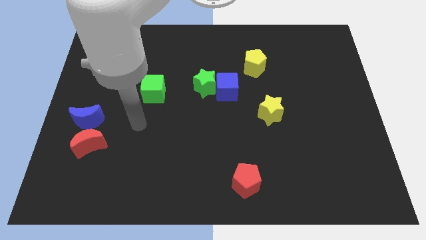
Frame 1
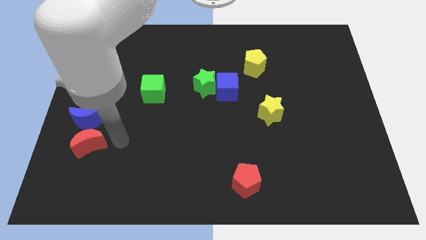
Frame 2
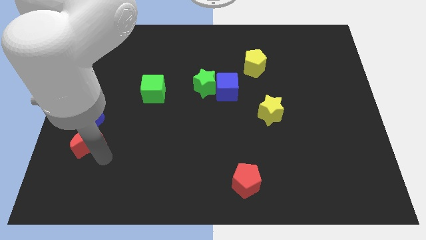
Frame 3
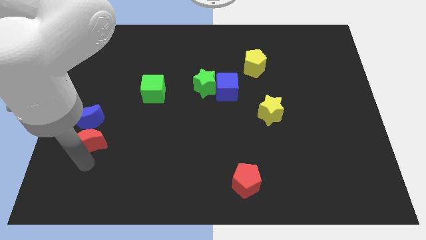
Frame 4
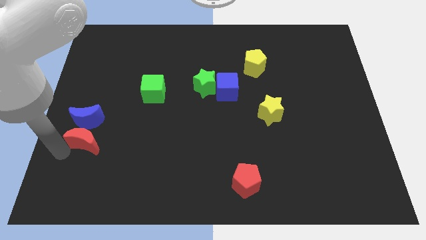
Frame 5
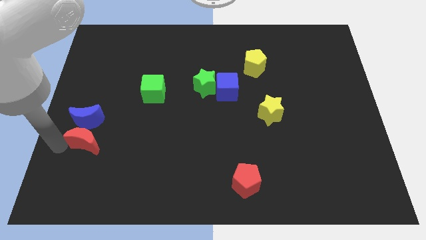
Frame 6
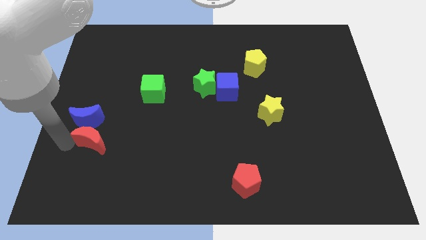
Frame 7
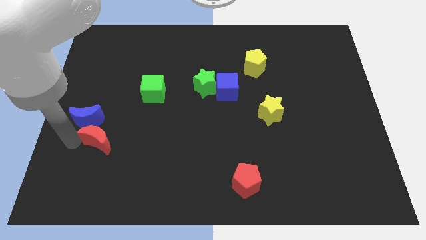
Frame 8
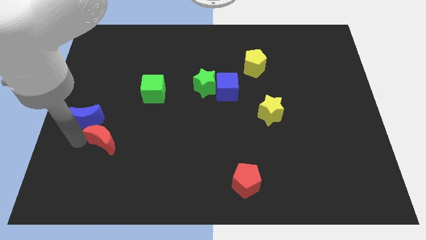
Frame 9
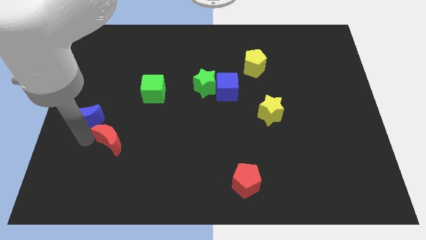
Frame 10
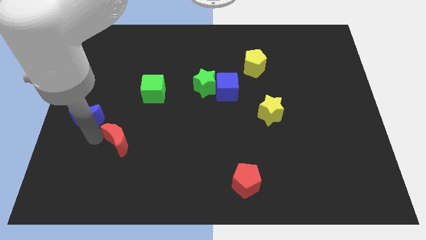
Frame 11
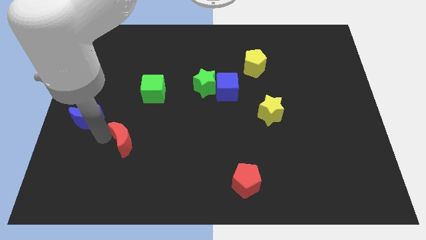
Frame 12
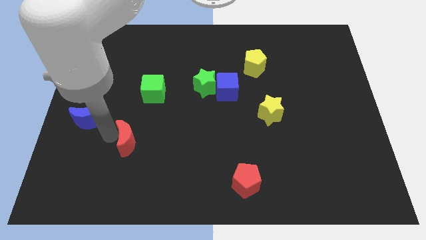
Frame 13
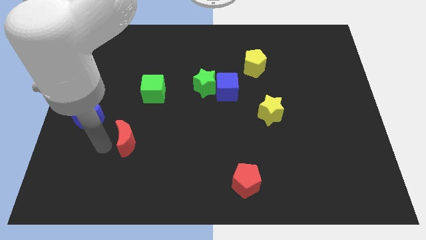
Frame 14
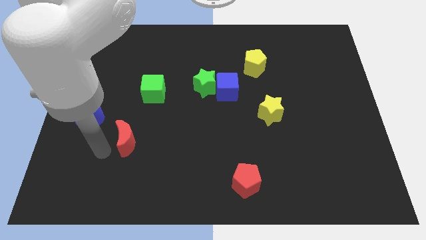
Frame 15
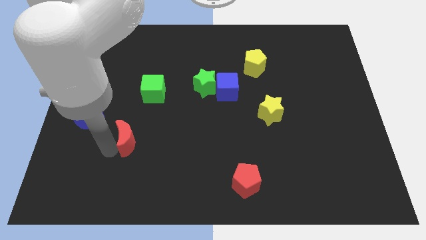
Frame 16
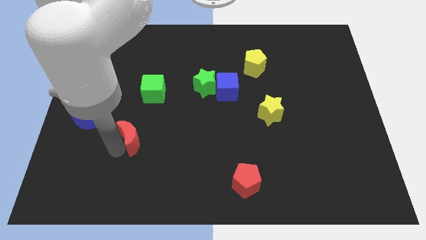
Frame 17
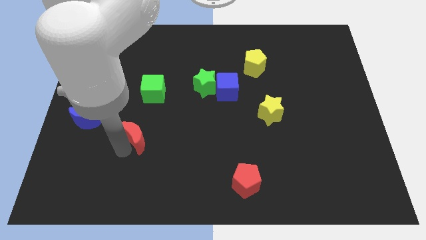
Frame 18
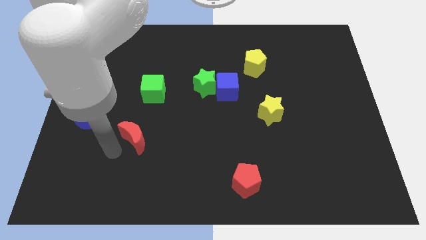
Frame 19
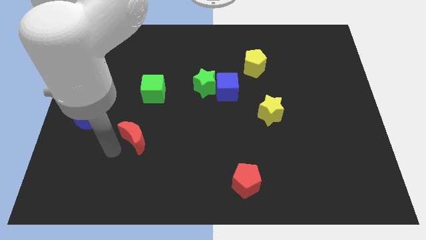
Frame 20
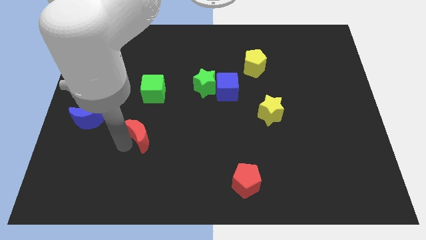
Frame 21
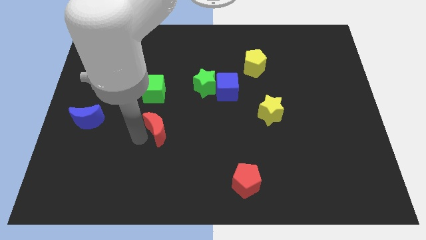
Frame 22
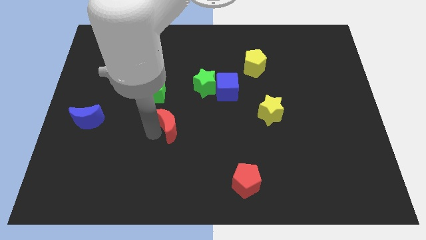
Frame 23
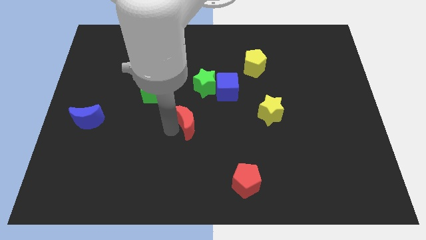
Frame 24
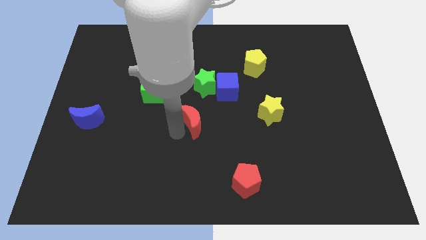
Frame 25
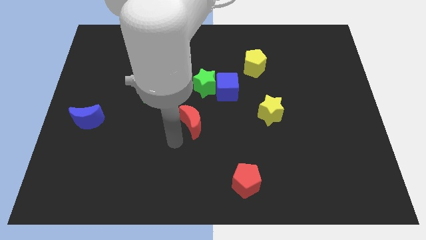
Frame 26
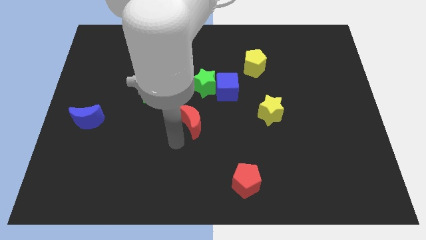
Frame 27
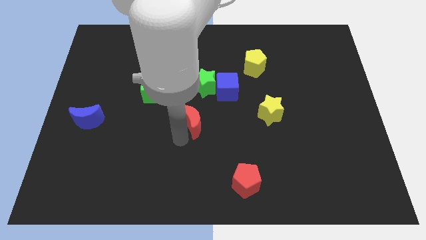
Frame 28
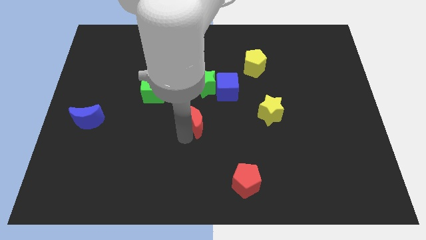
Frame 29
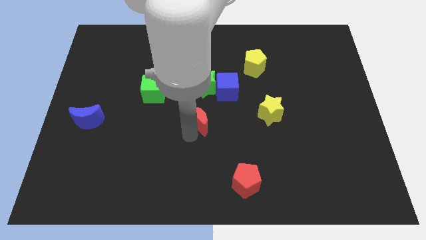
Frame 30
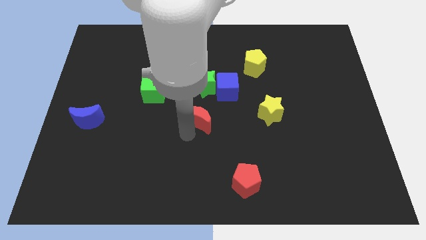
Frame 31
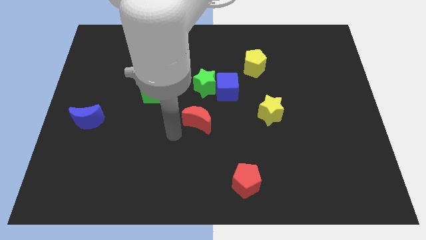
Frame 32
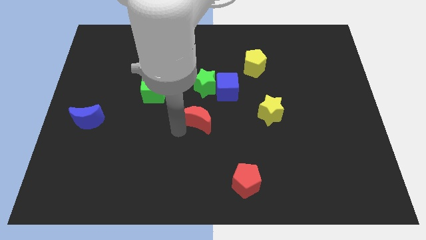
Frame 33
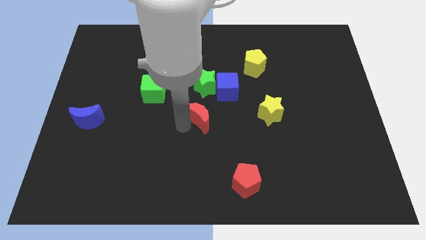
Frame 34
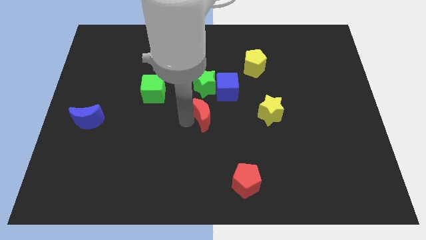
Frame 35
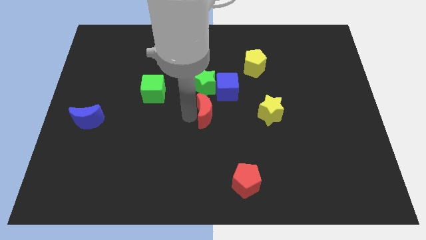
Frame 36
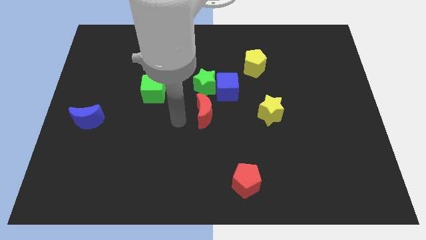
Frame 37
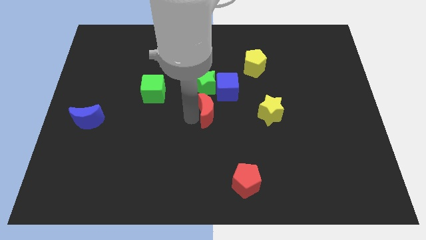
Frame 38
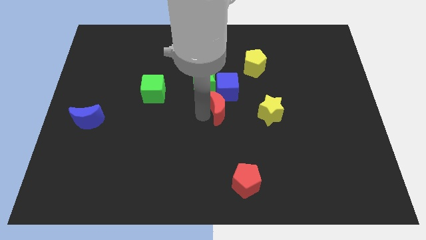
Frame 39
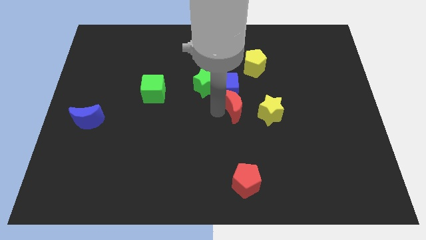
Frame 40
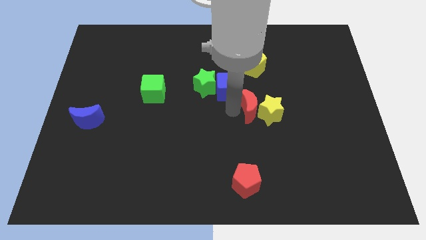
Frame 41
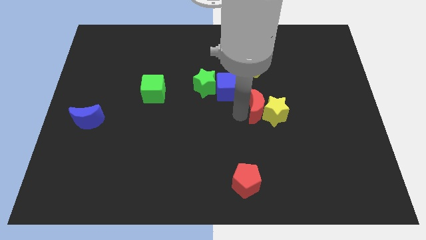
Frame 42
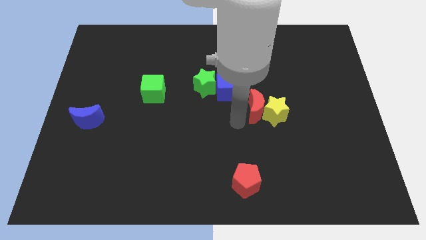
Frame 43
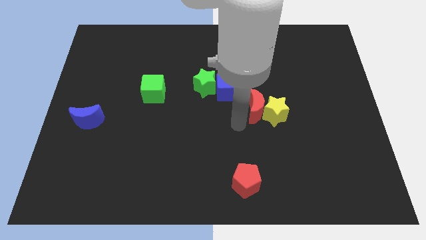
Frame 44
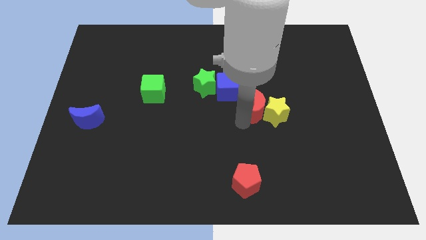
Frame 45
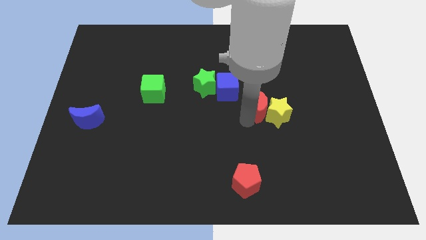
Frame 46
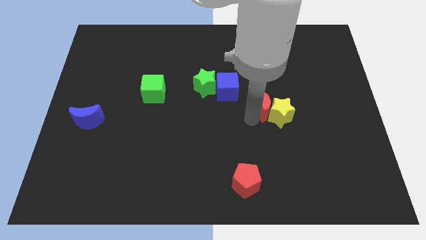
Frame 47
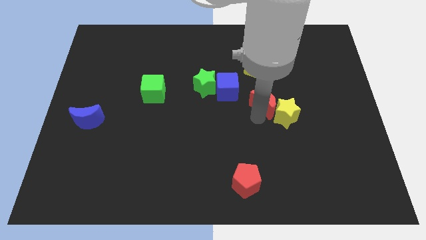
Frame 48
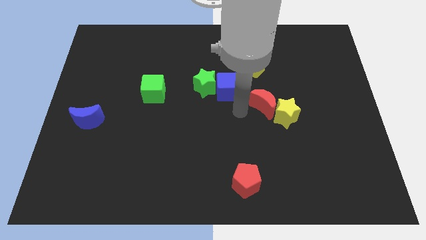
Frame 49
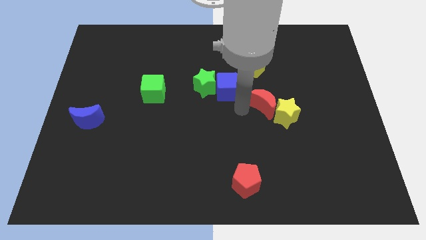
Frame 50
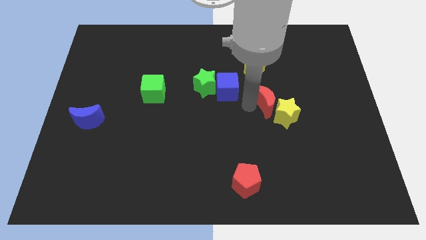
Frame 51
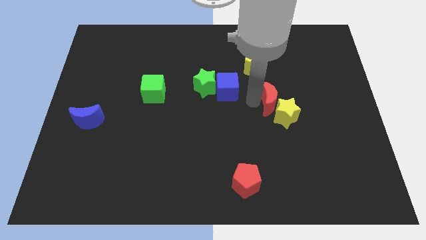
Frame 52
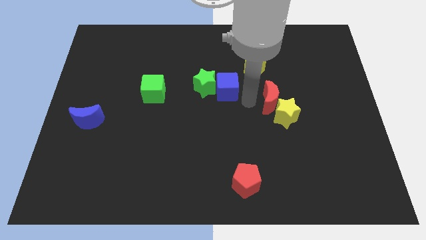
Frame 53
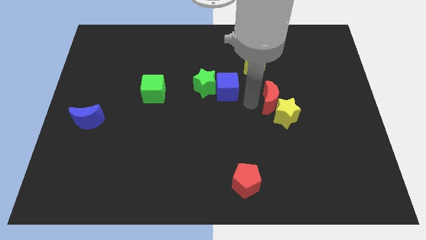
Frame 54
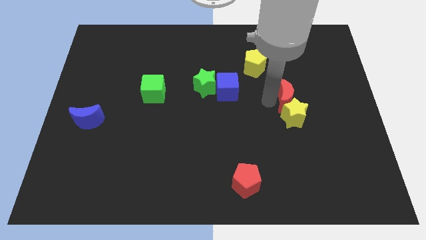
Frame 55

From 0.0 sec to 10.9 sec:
slide the red moon to the top right side of the yellow star

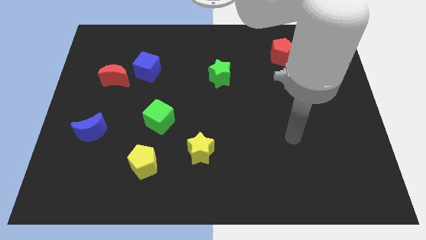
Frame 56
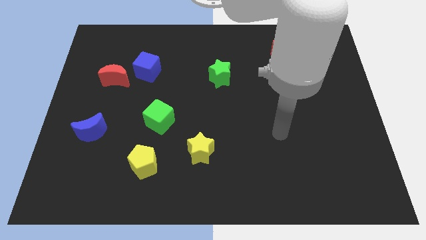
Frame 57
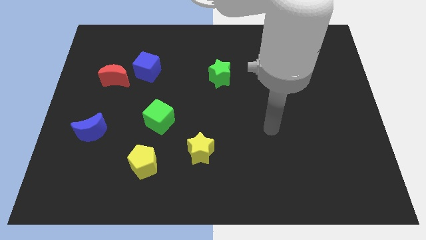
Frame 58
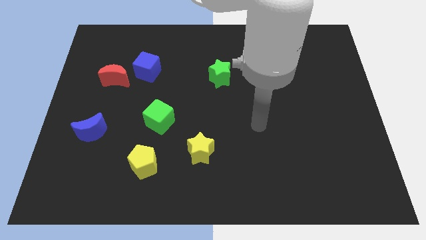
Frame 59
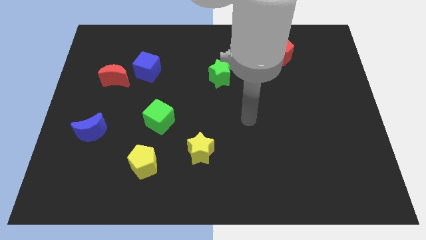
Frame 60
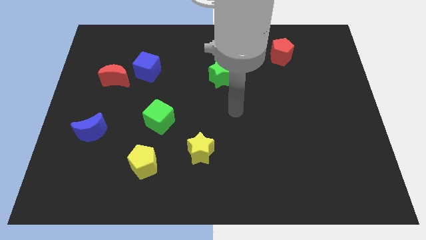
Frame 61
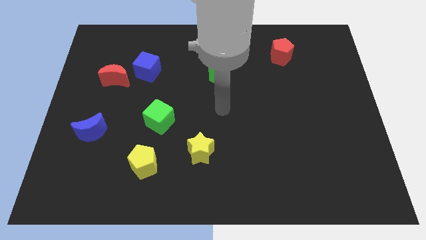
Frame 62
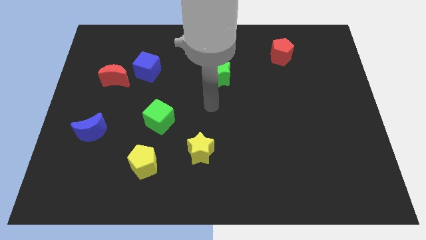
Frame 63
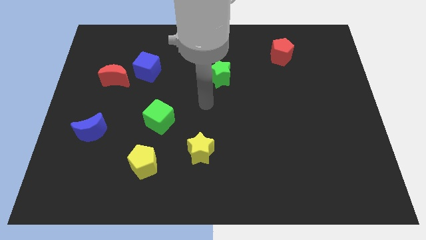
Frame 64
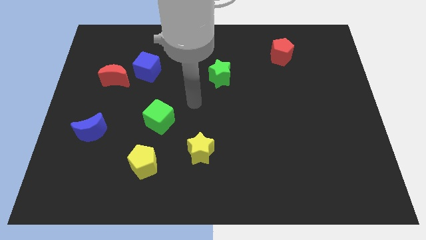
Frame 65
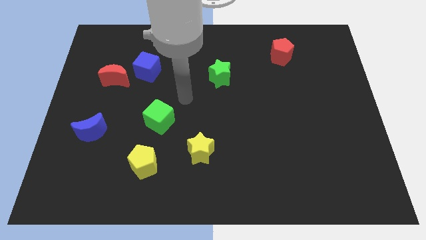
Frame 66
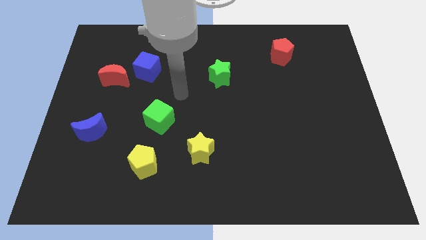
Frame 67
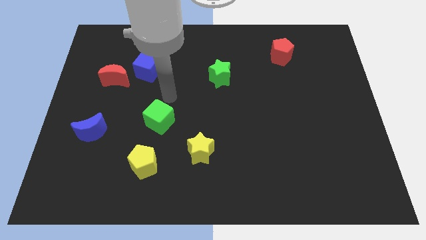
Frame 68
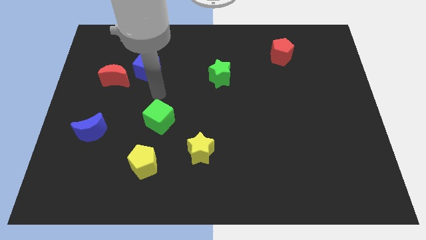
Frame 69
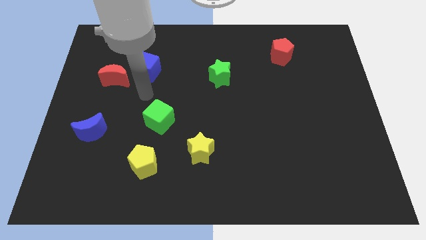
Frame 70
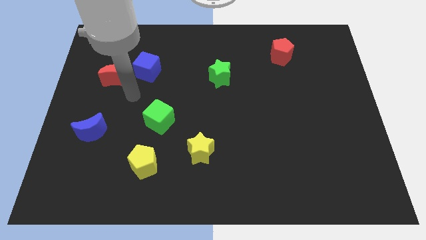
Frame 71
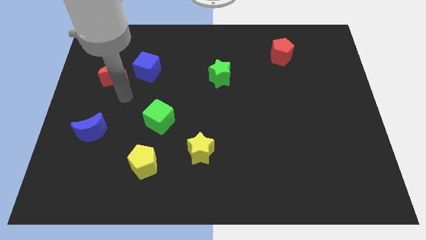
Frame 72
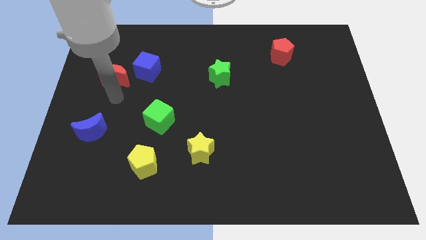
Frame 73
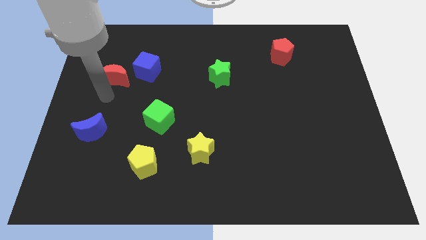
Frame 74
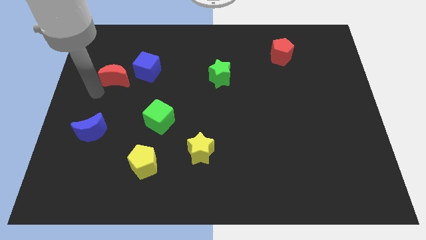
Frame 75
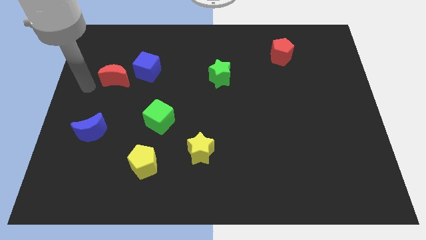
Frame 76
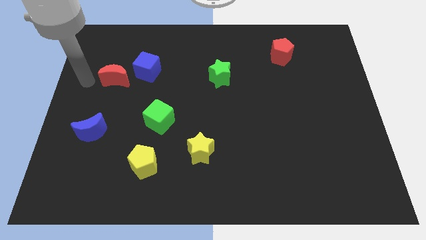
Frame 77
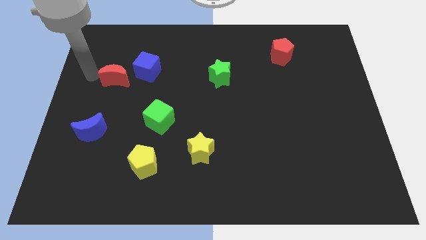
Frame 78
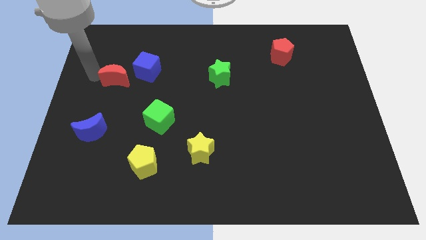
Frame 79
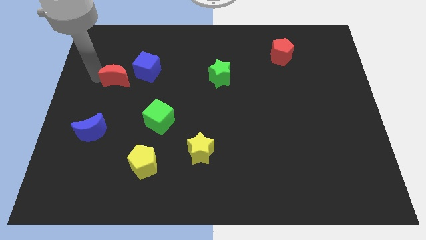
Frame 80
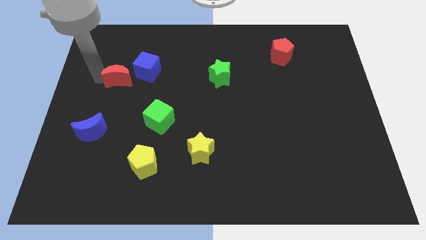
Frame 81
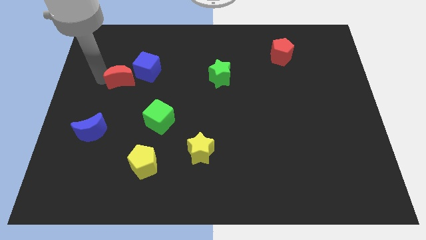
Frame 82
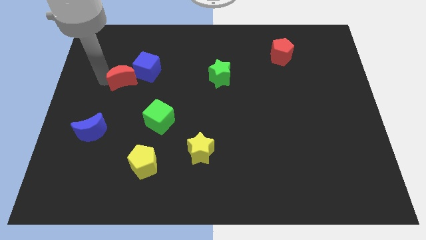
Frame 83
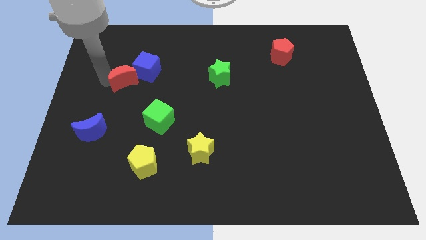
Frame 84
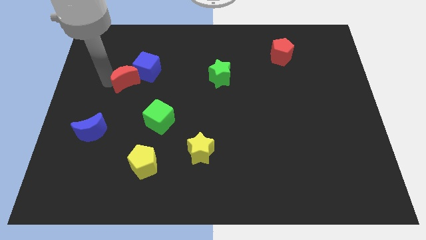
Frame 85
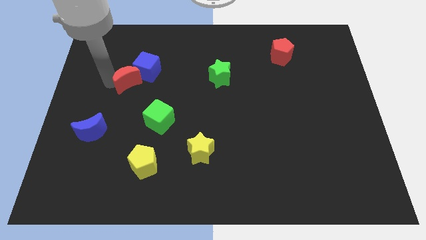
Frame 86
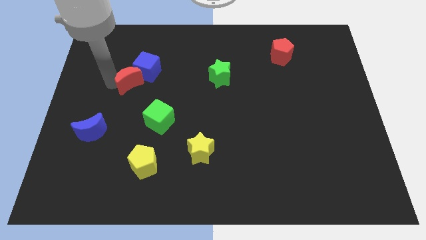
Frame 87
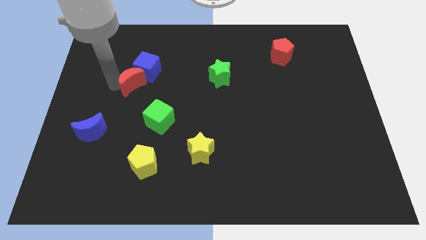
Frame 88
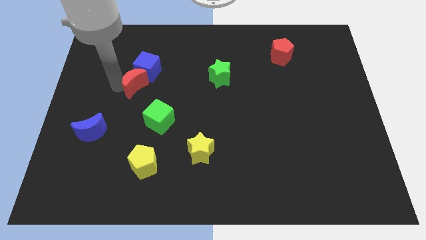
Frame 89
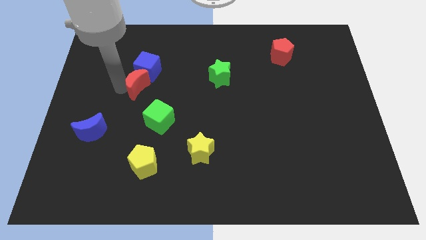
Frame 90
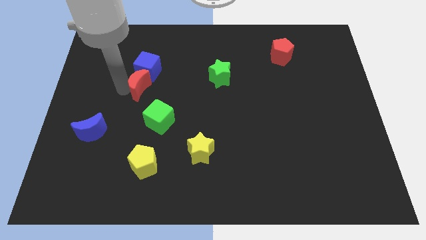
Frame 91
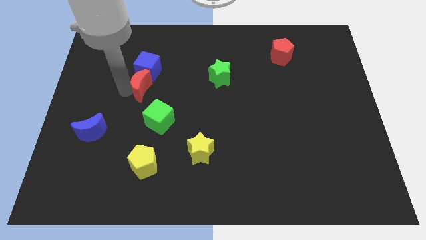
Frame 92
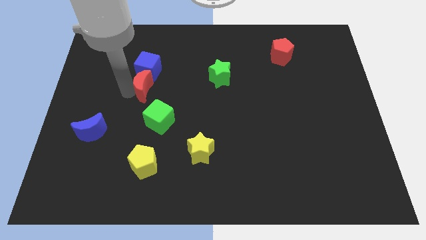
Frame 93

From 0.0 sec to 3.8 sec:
put the red moon to the bottom right side of the blue cube
